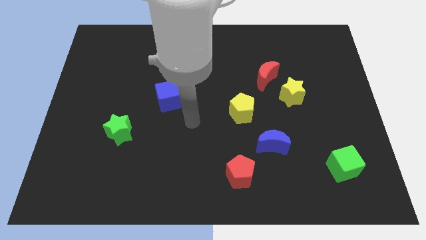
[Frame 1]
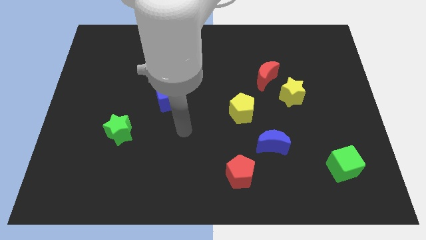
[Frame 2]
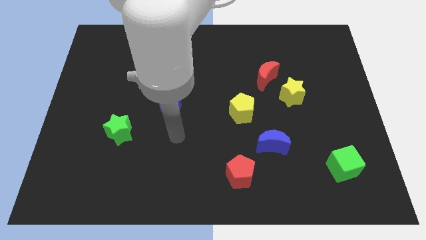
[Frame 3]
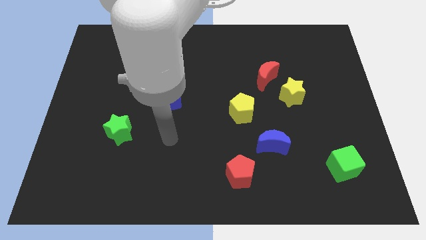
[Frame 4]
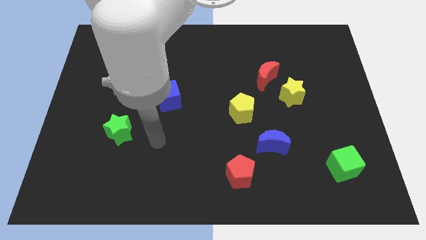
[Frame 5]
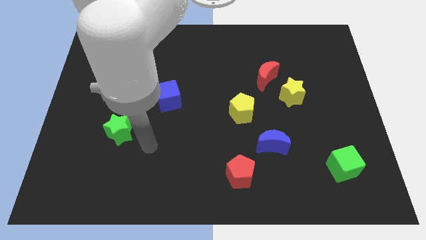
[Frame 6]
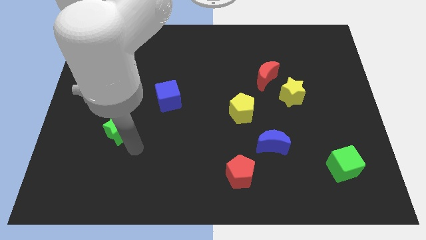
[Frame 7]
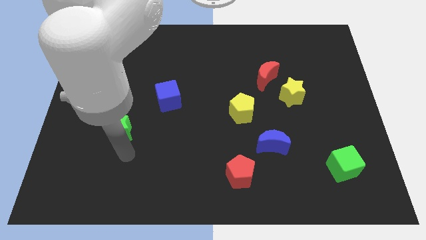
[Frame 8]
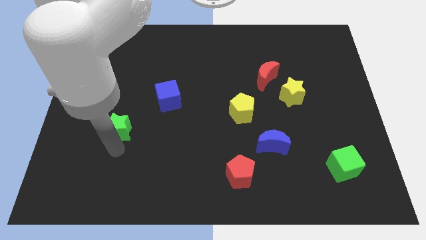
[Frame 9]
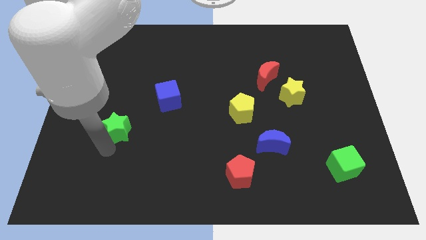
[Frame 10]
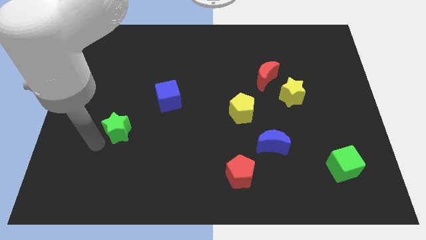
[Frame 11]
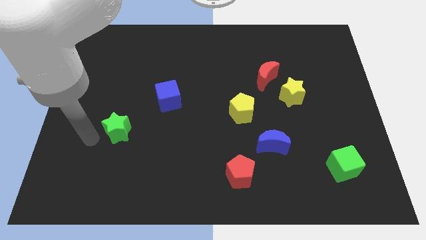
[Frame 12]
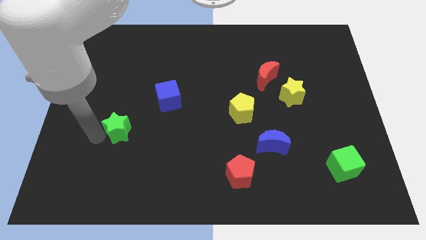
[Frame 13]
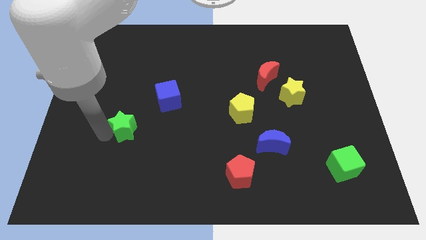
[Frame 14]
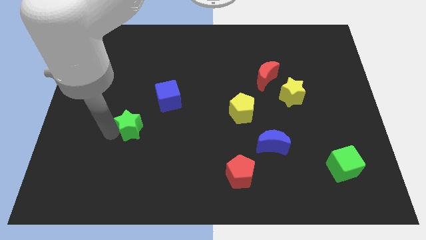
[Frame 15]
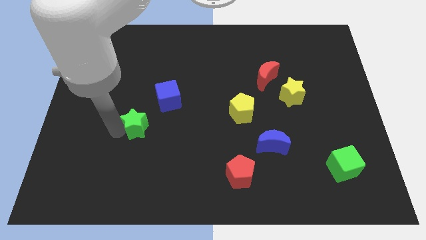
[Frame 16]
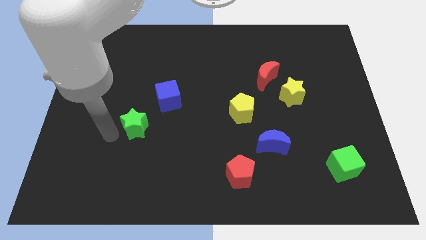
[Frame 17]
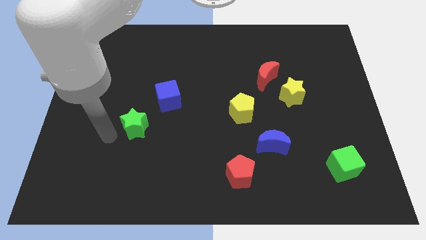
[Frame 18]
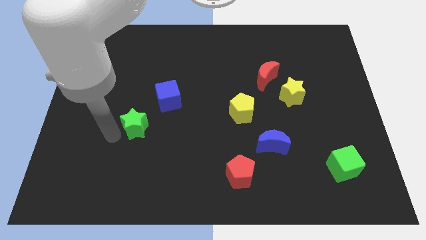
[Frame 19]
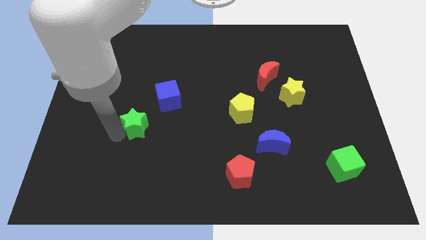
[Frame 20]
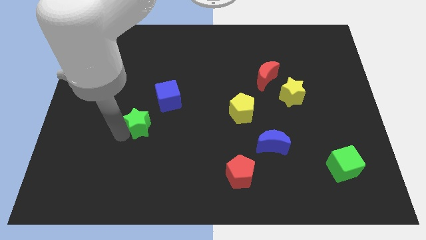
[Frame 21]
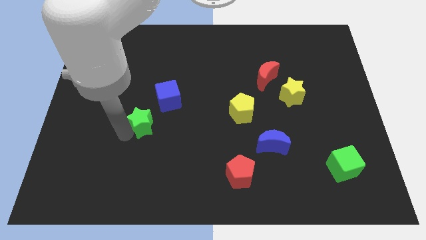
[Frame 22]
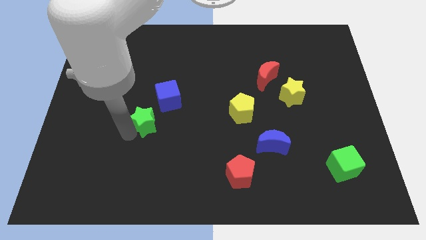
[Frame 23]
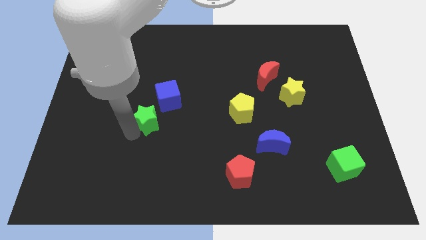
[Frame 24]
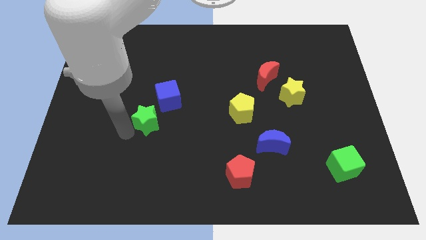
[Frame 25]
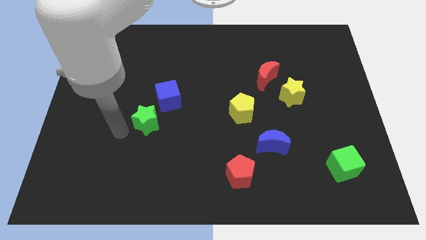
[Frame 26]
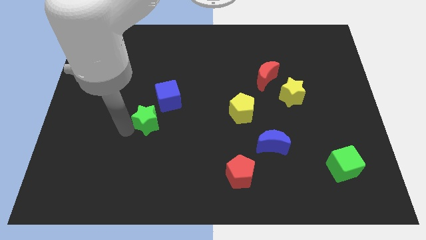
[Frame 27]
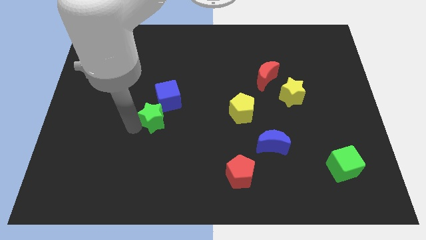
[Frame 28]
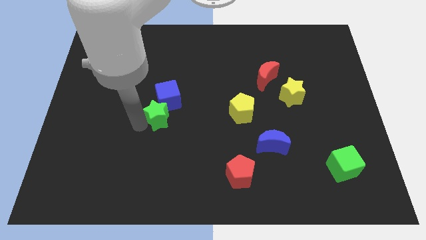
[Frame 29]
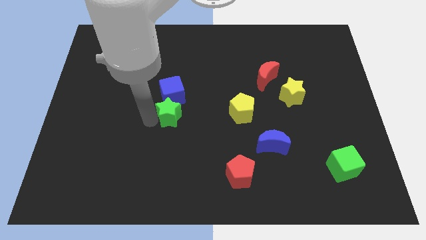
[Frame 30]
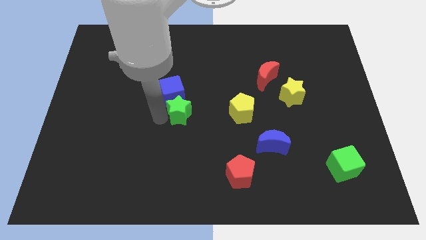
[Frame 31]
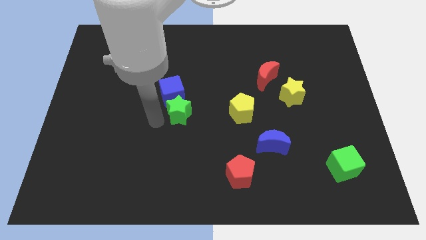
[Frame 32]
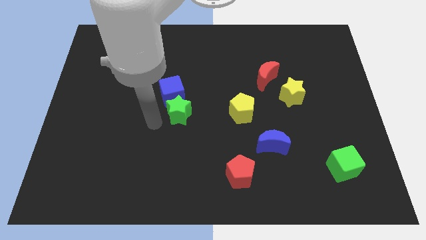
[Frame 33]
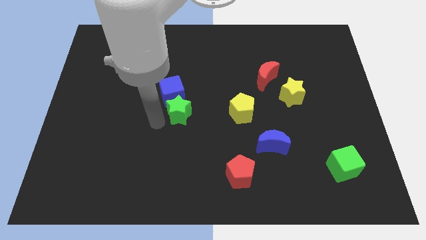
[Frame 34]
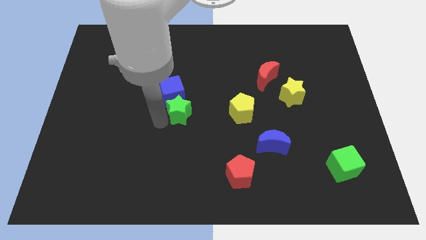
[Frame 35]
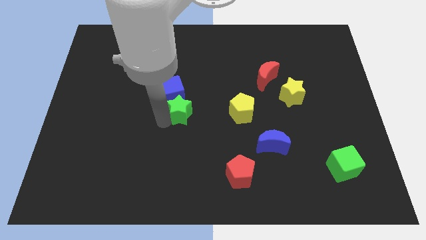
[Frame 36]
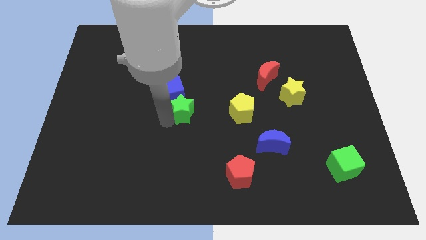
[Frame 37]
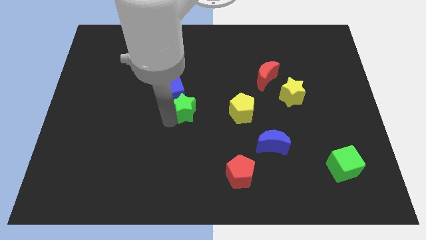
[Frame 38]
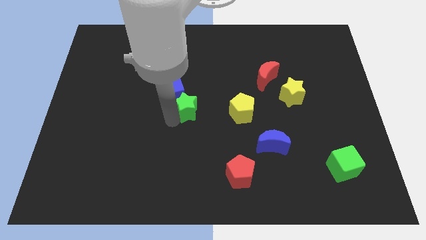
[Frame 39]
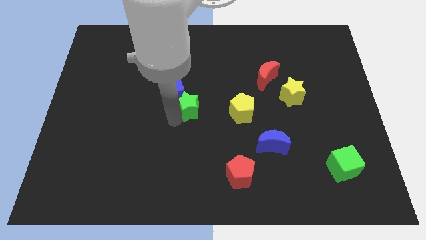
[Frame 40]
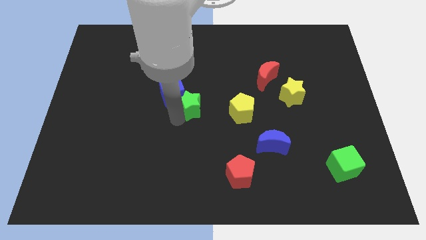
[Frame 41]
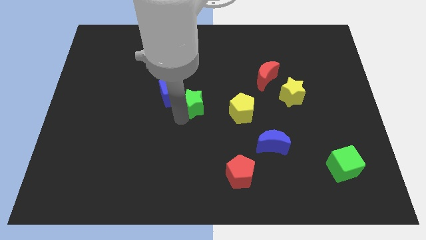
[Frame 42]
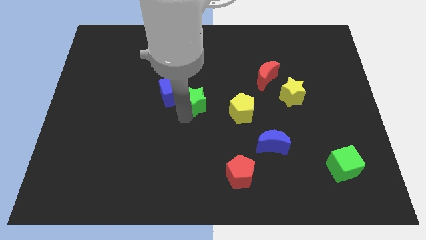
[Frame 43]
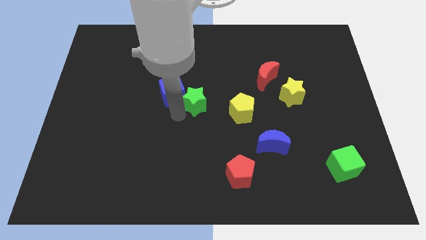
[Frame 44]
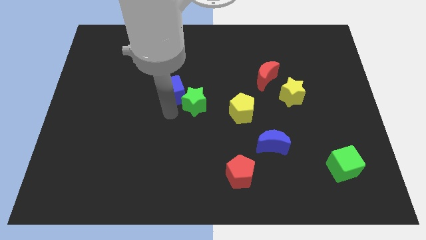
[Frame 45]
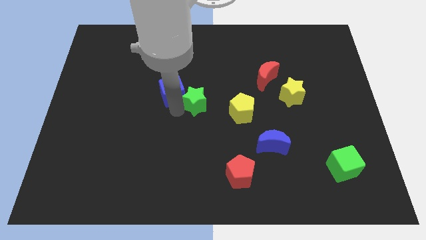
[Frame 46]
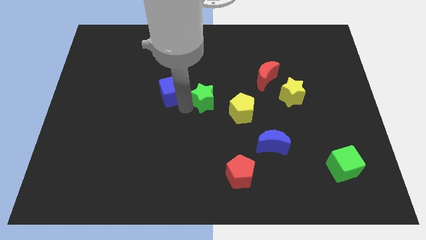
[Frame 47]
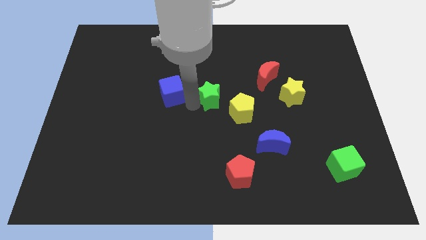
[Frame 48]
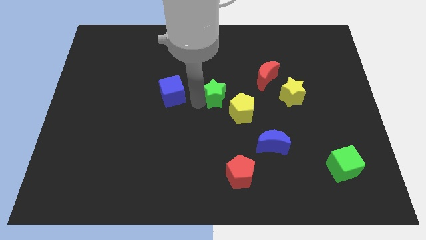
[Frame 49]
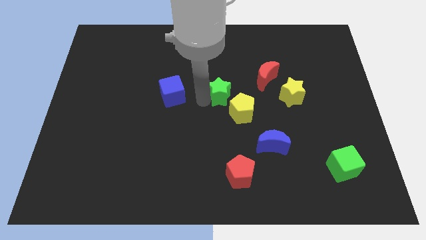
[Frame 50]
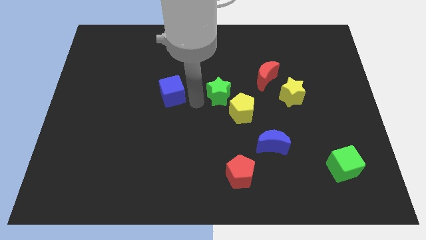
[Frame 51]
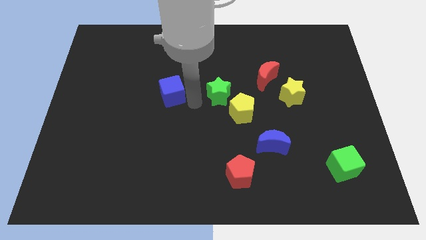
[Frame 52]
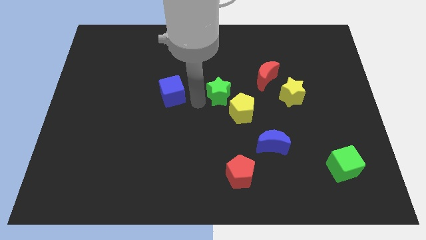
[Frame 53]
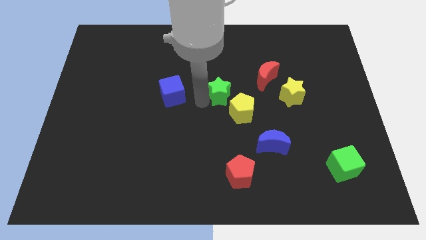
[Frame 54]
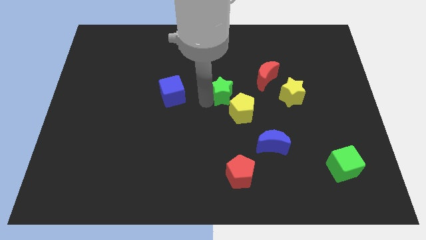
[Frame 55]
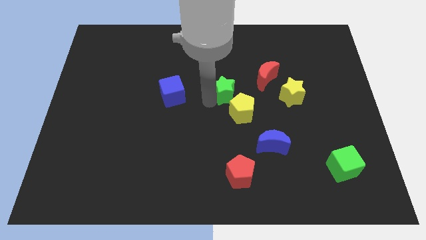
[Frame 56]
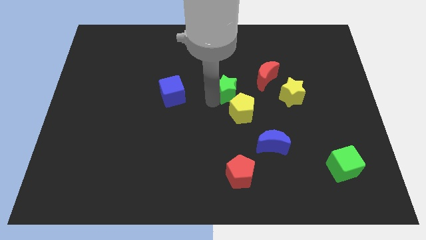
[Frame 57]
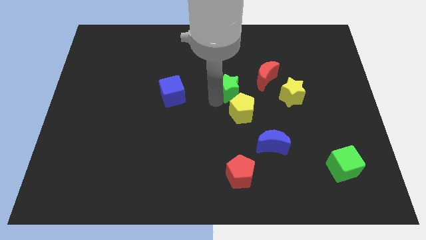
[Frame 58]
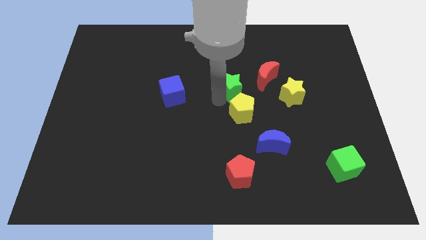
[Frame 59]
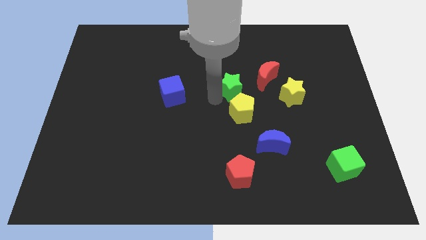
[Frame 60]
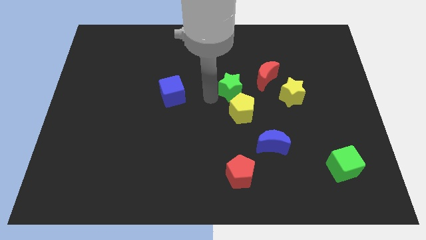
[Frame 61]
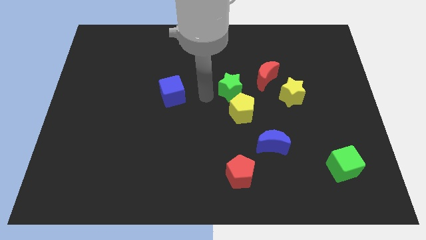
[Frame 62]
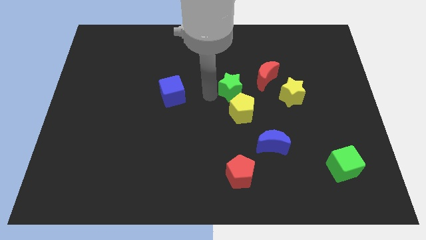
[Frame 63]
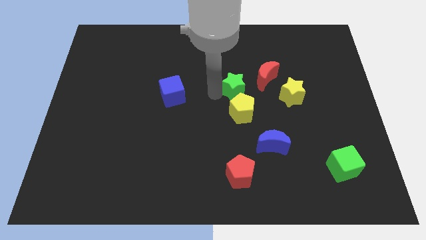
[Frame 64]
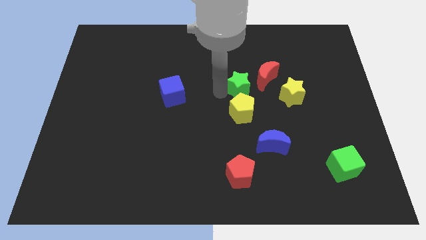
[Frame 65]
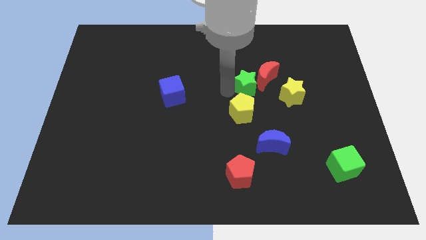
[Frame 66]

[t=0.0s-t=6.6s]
move the green star close to the red moon
